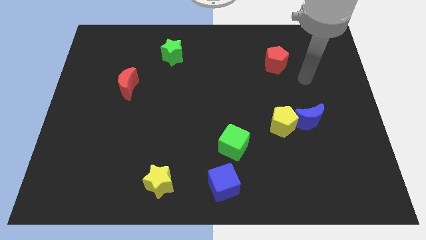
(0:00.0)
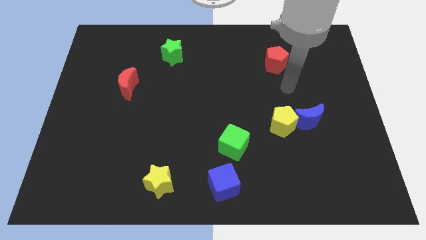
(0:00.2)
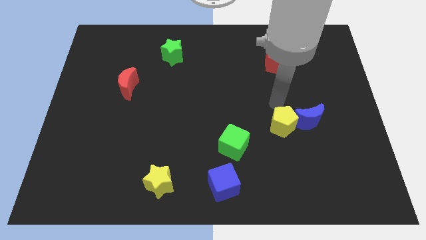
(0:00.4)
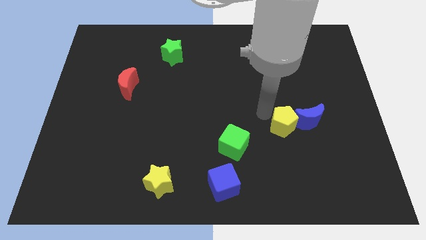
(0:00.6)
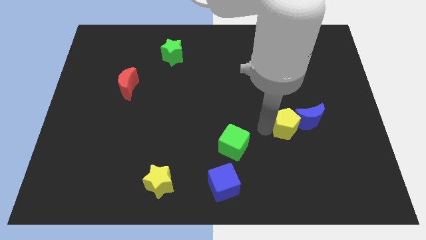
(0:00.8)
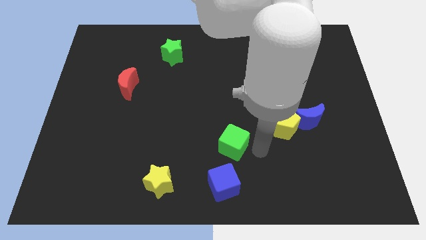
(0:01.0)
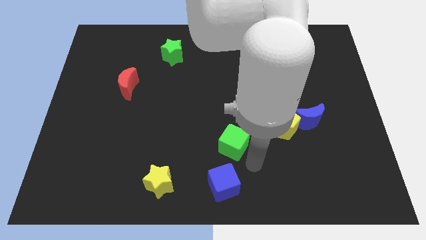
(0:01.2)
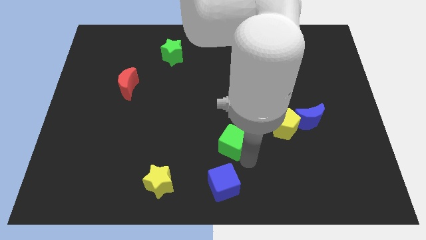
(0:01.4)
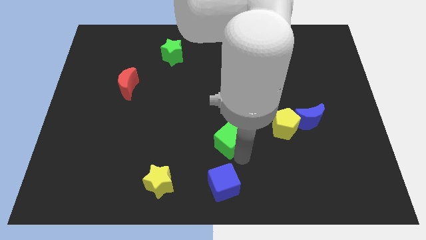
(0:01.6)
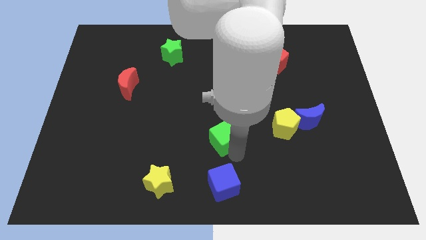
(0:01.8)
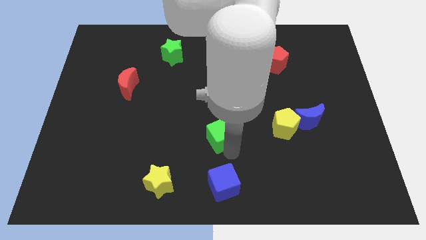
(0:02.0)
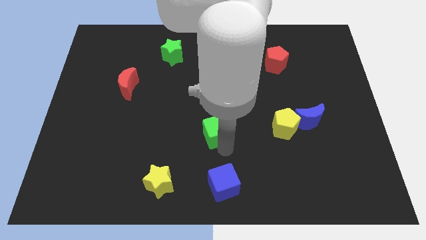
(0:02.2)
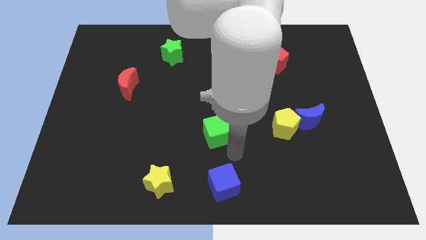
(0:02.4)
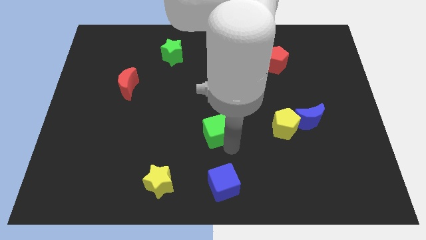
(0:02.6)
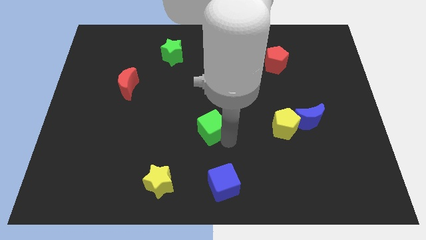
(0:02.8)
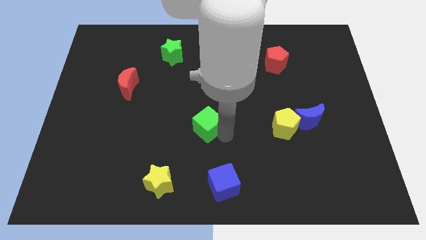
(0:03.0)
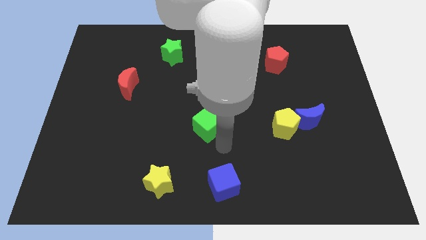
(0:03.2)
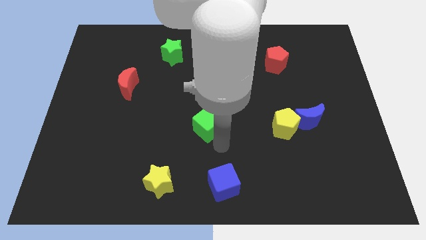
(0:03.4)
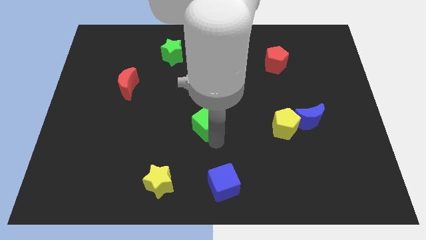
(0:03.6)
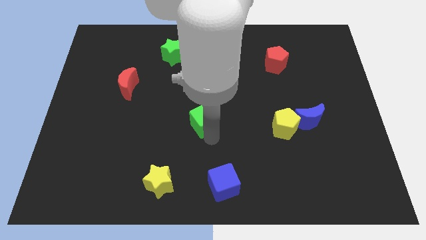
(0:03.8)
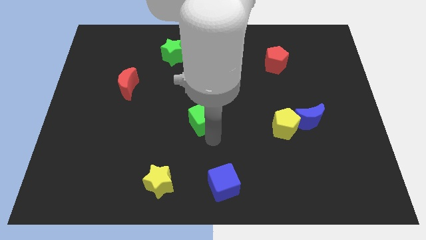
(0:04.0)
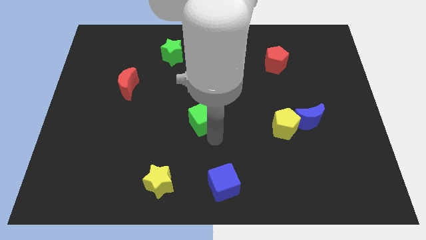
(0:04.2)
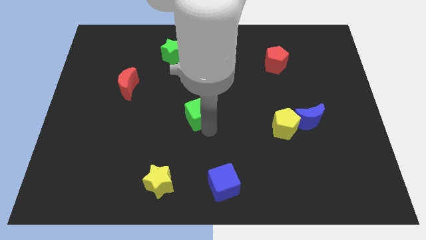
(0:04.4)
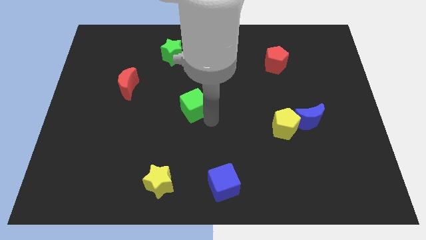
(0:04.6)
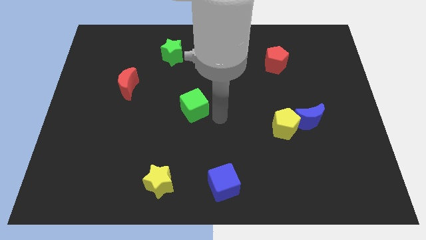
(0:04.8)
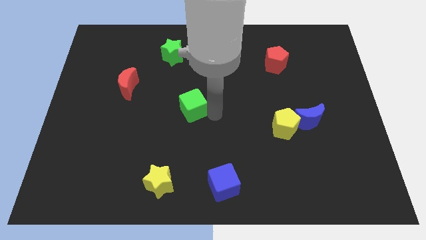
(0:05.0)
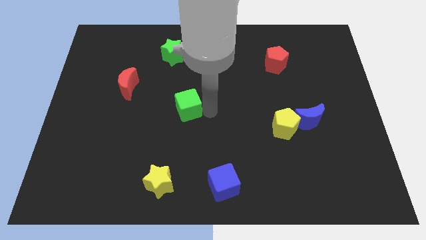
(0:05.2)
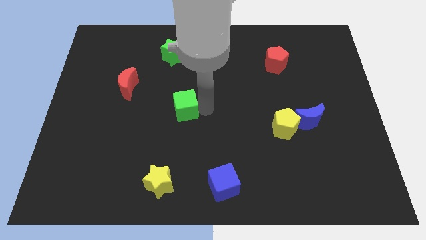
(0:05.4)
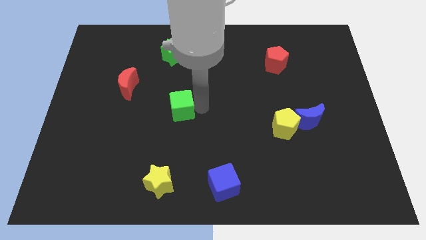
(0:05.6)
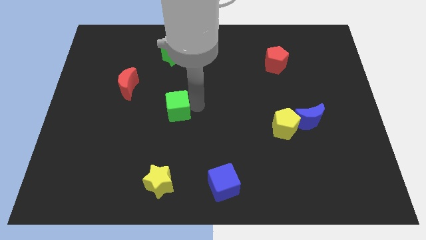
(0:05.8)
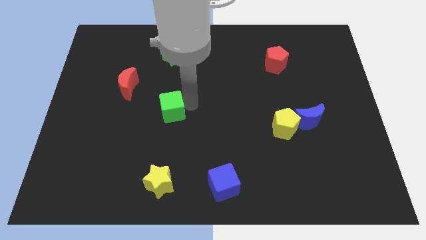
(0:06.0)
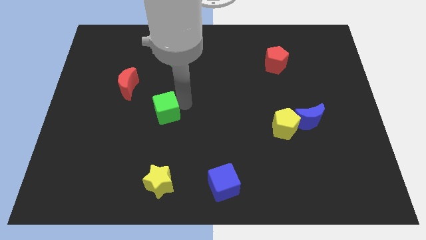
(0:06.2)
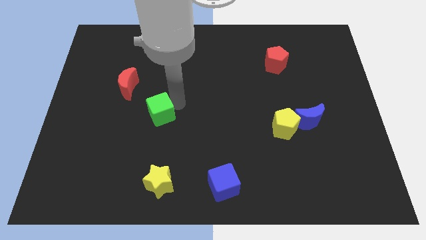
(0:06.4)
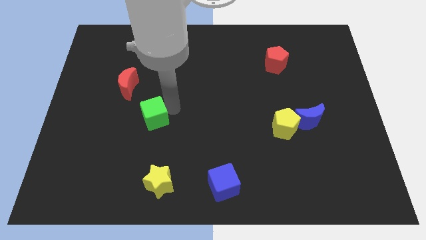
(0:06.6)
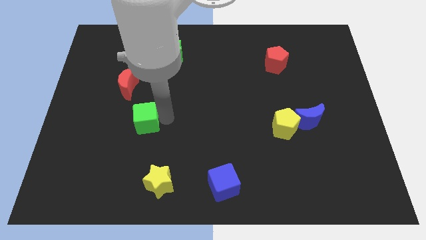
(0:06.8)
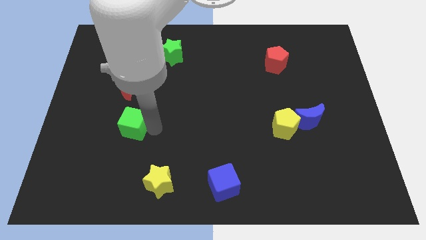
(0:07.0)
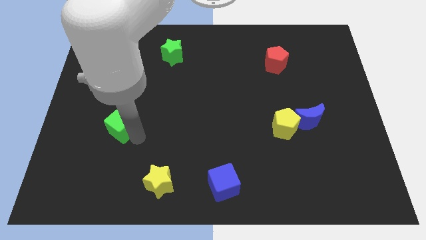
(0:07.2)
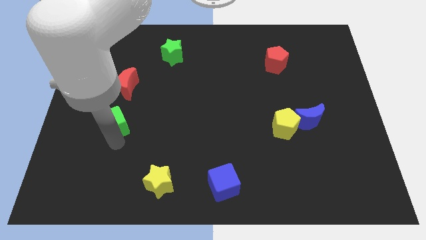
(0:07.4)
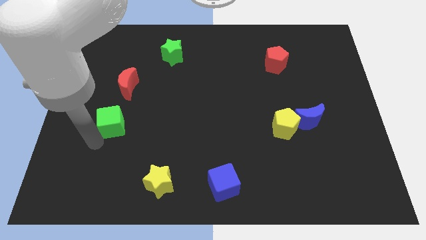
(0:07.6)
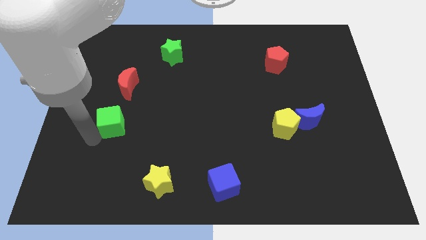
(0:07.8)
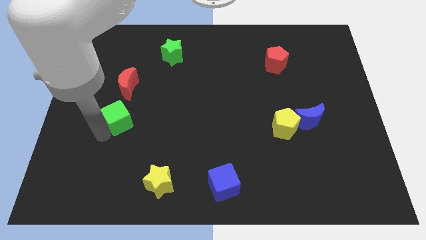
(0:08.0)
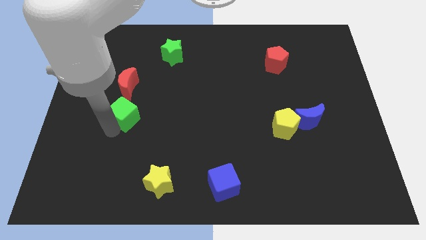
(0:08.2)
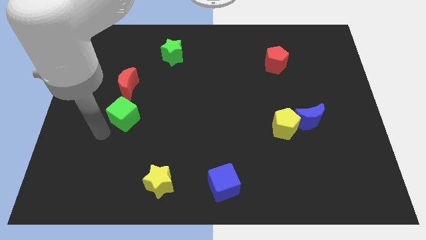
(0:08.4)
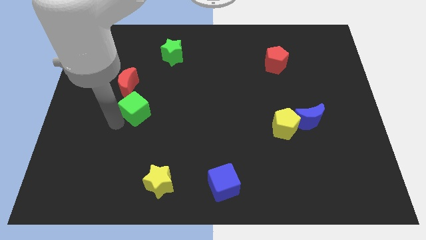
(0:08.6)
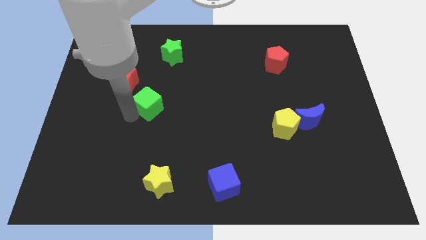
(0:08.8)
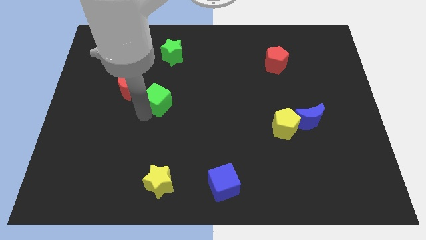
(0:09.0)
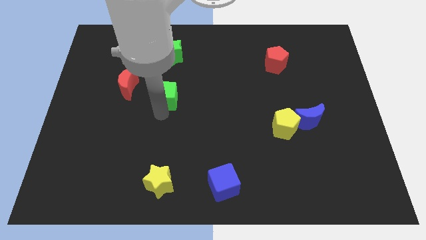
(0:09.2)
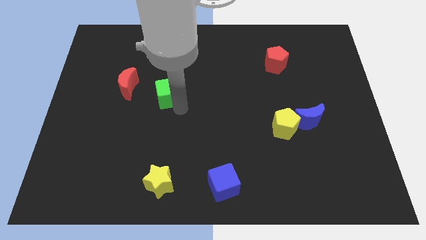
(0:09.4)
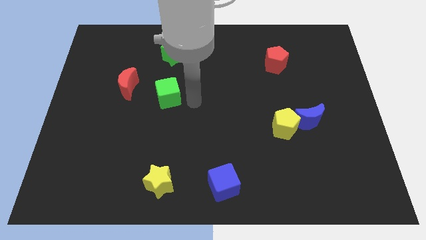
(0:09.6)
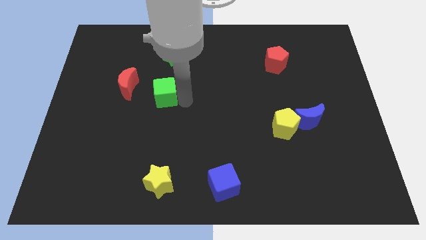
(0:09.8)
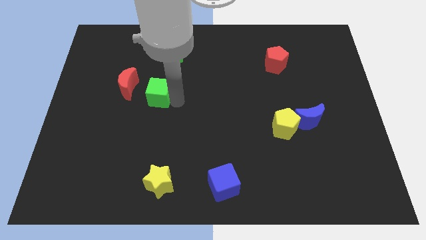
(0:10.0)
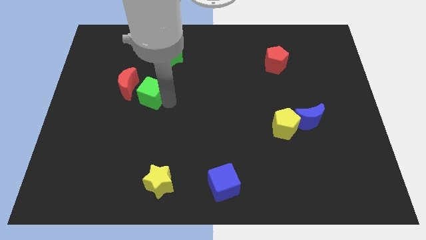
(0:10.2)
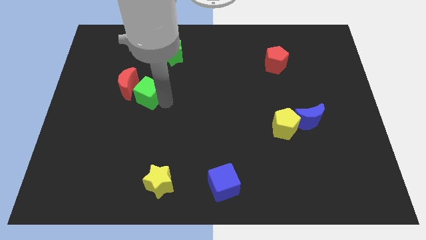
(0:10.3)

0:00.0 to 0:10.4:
move the green cube close to the red moon

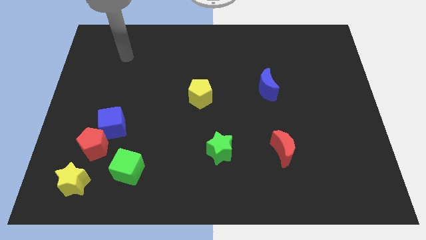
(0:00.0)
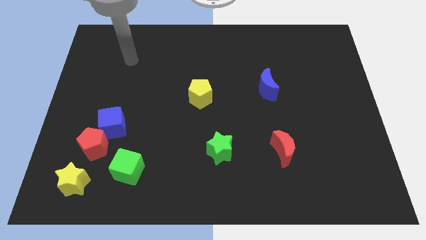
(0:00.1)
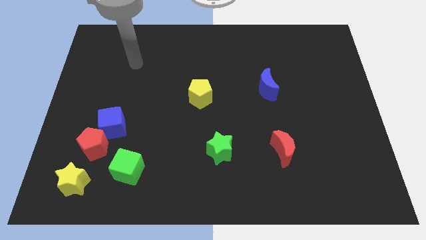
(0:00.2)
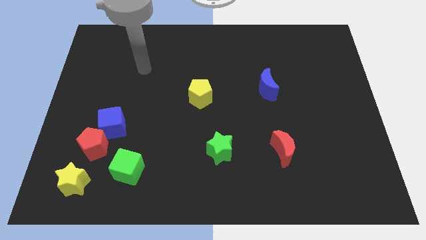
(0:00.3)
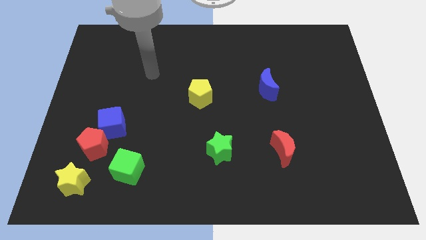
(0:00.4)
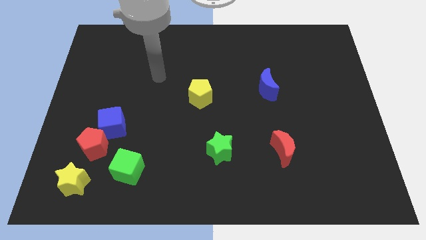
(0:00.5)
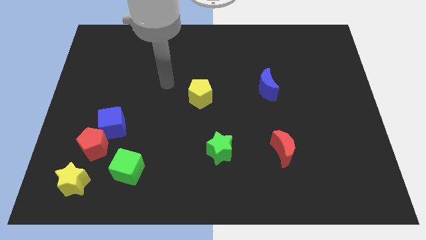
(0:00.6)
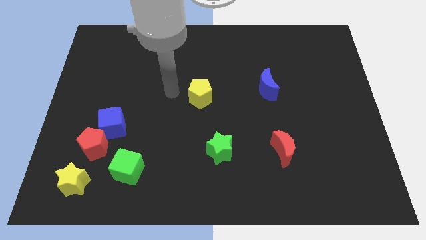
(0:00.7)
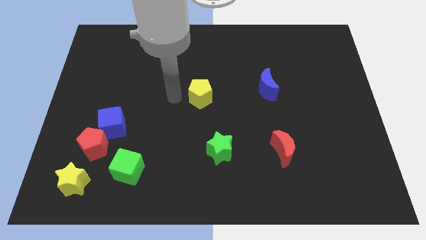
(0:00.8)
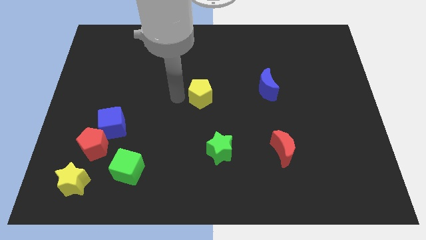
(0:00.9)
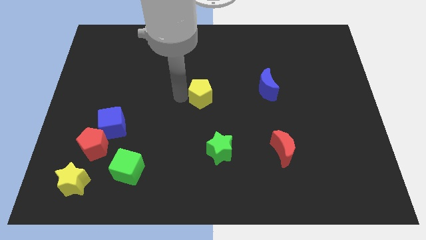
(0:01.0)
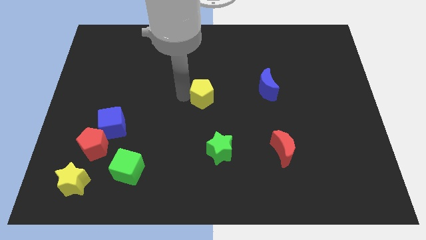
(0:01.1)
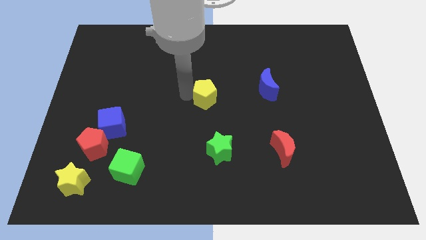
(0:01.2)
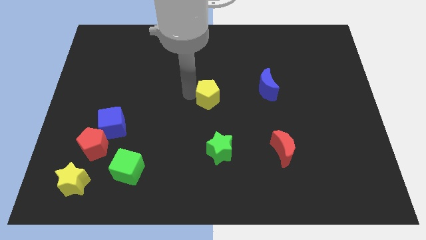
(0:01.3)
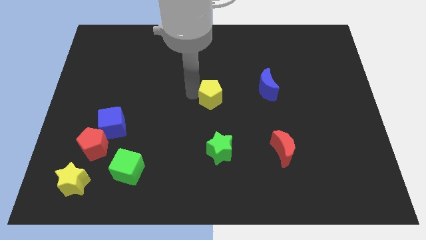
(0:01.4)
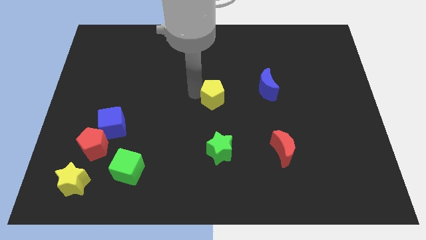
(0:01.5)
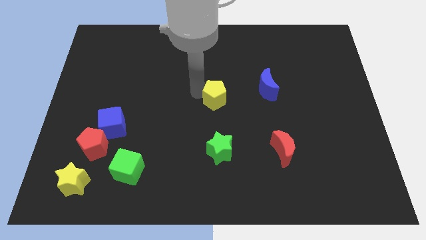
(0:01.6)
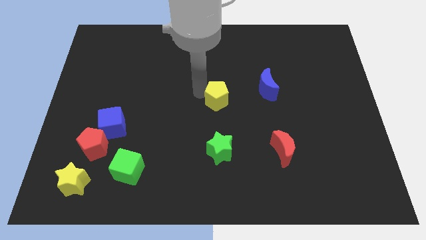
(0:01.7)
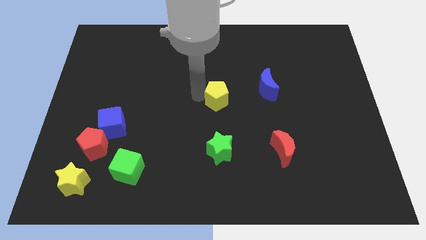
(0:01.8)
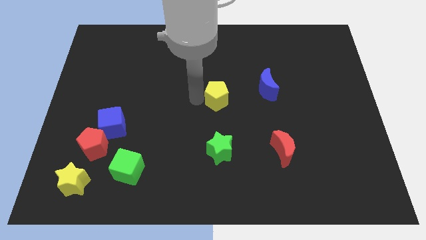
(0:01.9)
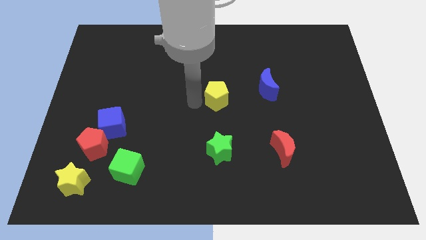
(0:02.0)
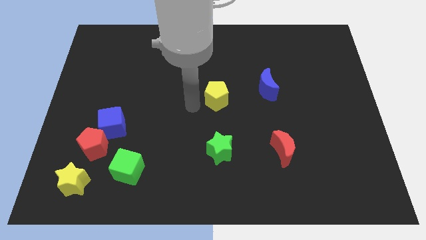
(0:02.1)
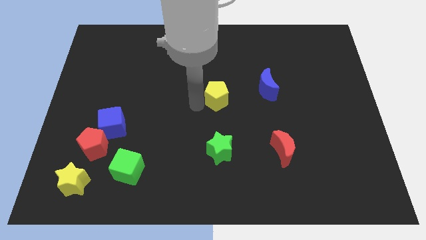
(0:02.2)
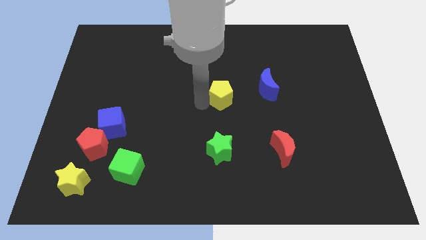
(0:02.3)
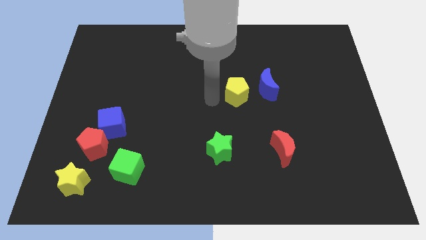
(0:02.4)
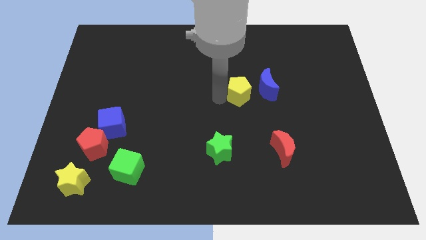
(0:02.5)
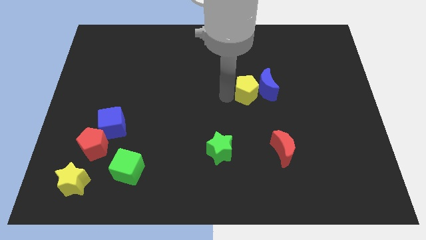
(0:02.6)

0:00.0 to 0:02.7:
move the yellow pentagon close to the blue moon
